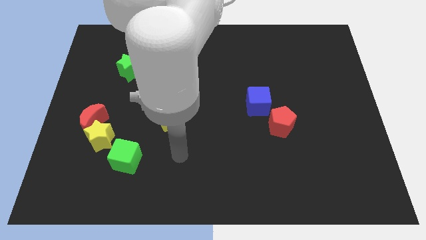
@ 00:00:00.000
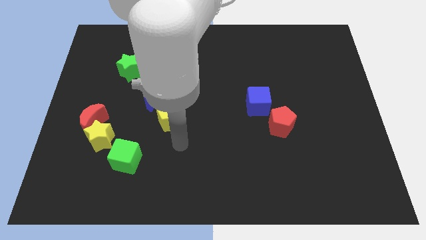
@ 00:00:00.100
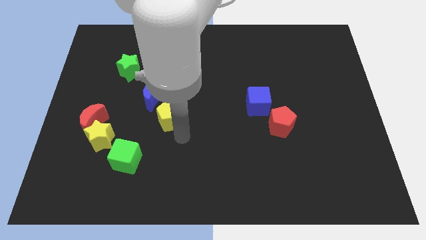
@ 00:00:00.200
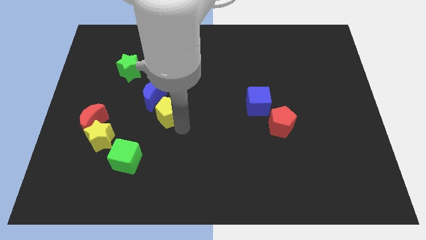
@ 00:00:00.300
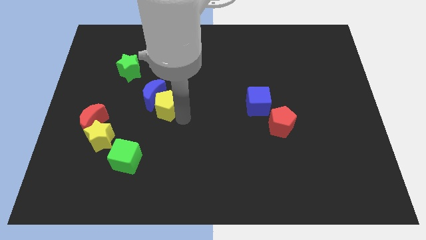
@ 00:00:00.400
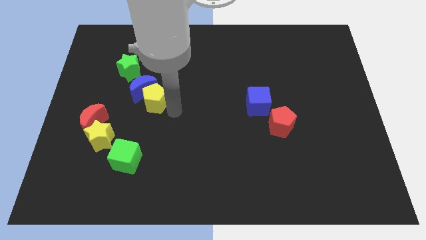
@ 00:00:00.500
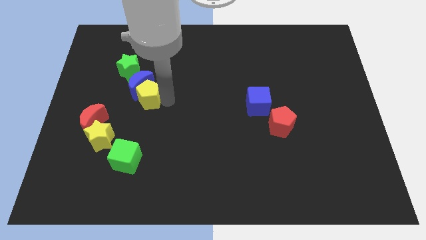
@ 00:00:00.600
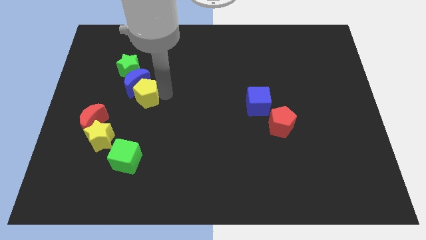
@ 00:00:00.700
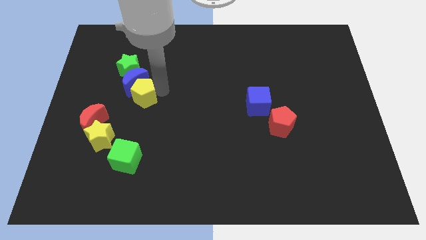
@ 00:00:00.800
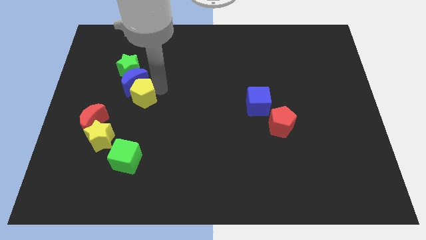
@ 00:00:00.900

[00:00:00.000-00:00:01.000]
push the blue moon up and to the left diagonally a little

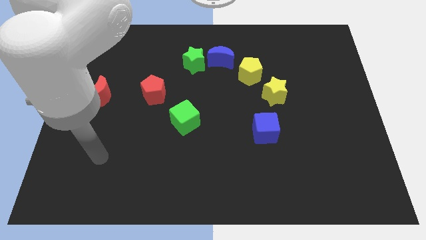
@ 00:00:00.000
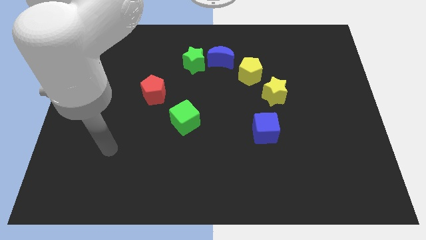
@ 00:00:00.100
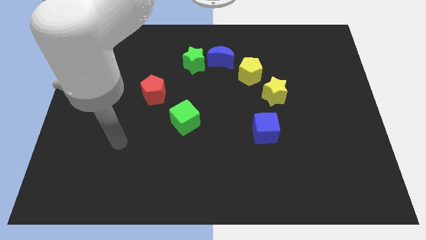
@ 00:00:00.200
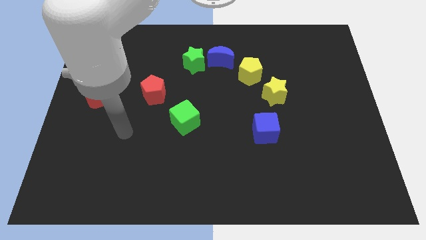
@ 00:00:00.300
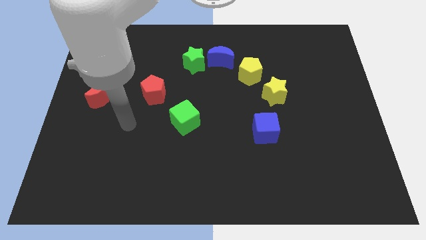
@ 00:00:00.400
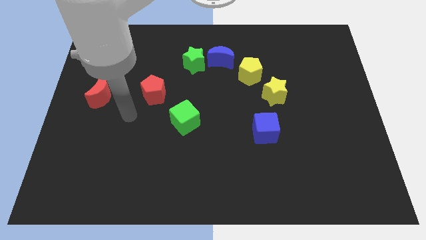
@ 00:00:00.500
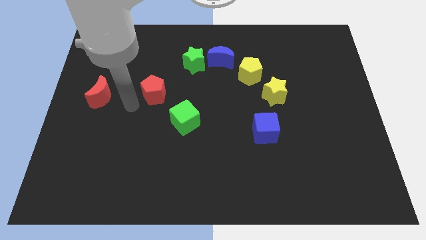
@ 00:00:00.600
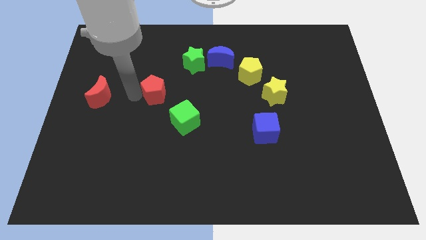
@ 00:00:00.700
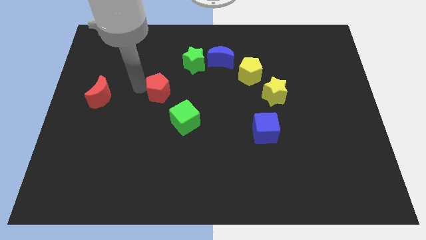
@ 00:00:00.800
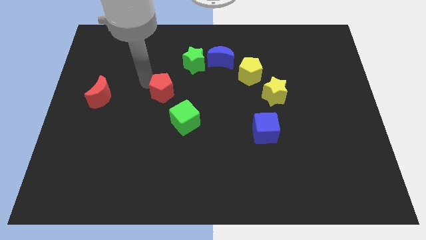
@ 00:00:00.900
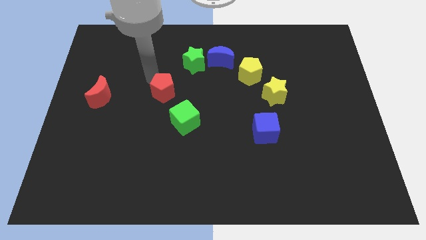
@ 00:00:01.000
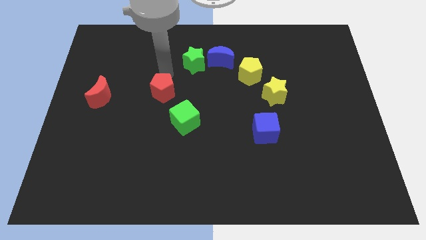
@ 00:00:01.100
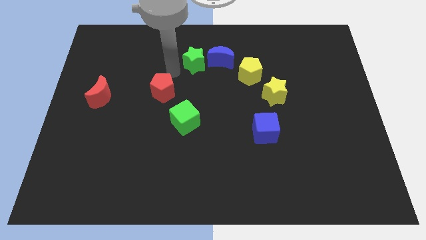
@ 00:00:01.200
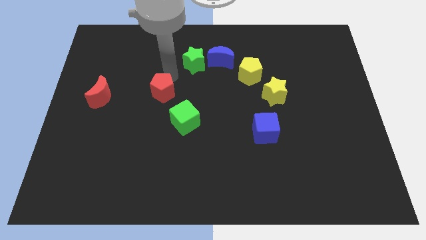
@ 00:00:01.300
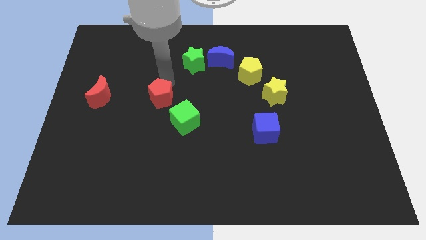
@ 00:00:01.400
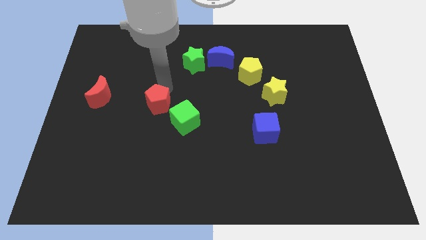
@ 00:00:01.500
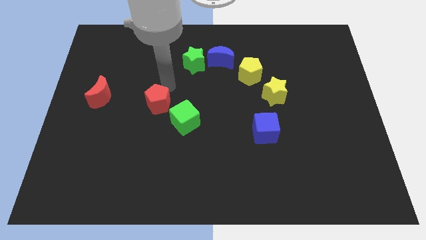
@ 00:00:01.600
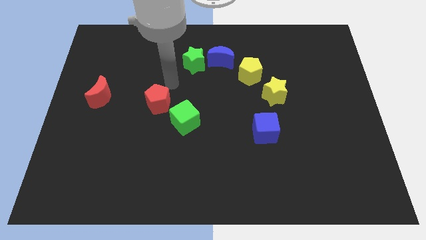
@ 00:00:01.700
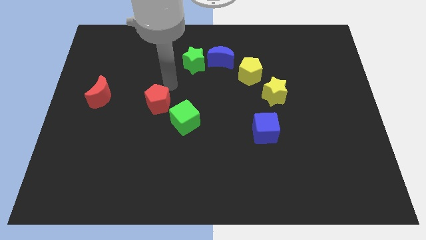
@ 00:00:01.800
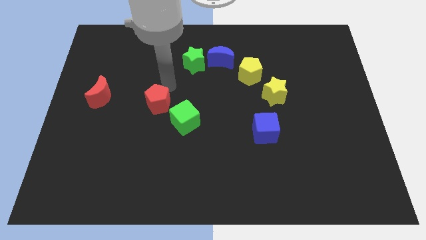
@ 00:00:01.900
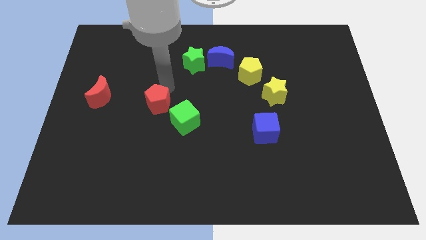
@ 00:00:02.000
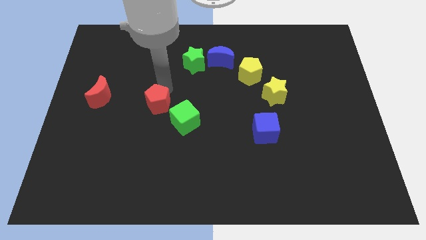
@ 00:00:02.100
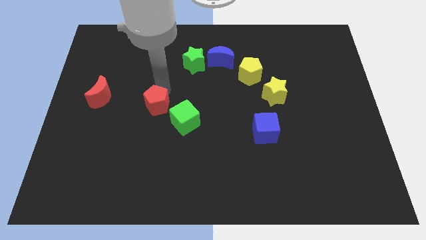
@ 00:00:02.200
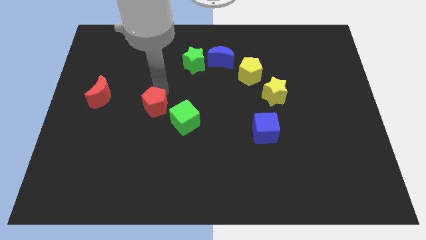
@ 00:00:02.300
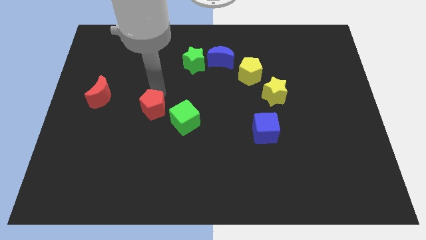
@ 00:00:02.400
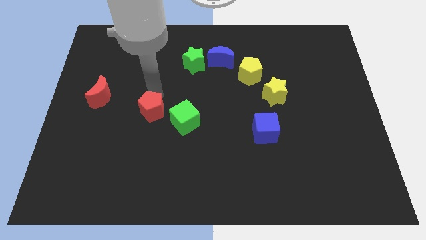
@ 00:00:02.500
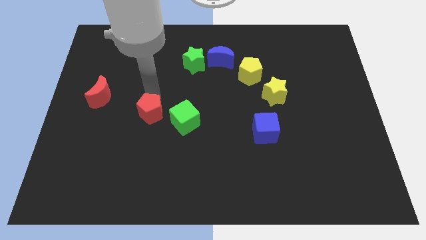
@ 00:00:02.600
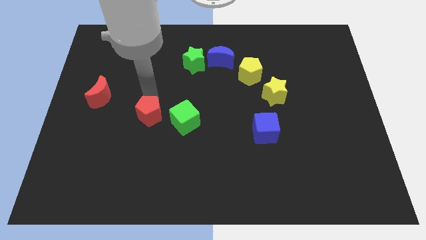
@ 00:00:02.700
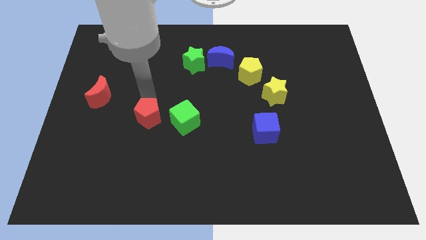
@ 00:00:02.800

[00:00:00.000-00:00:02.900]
slide the red pentagon somewhat down

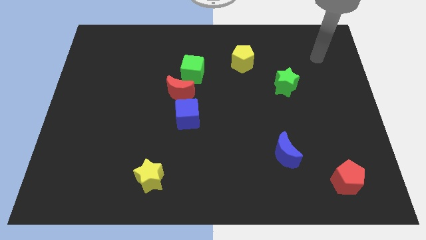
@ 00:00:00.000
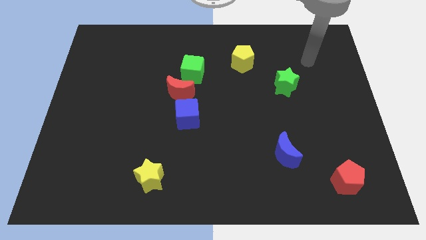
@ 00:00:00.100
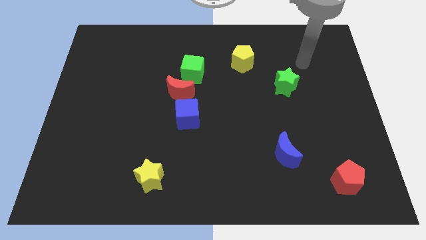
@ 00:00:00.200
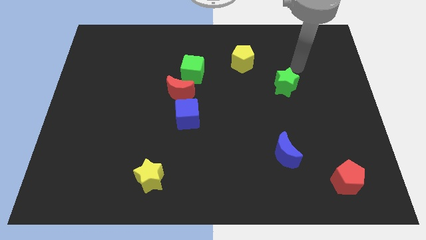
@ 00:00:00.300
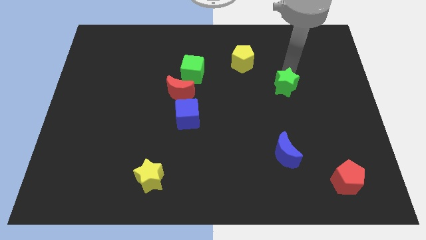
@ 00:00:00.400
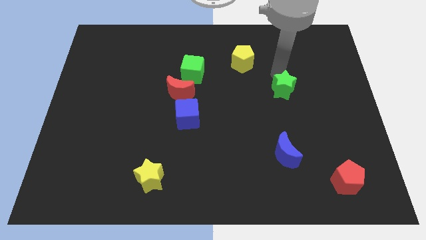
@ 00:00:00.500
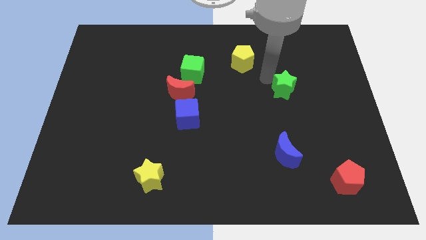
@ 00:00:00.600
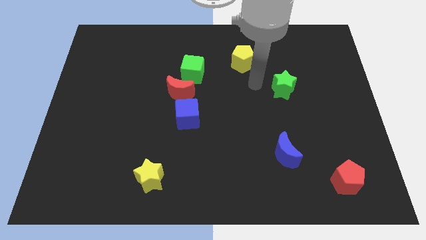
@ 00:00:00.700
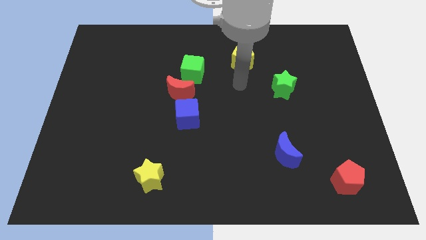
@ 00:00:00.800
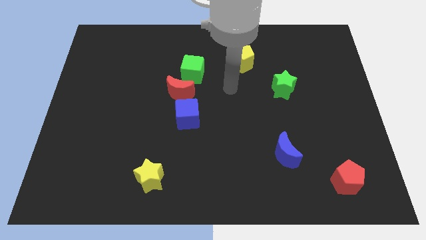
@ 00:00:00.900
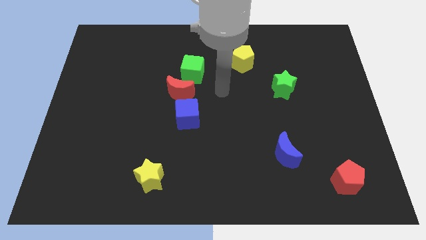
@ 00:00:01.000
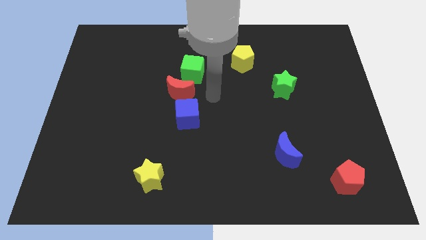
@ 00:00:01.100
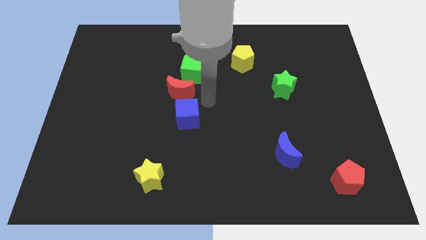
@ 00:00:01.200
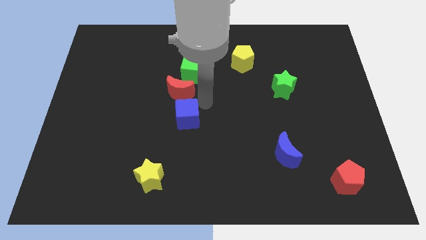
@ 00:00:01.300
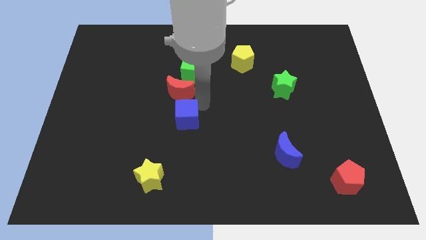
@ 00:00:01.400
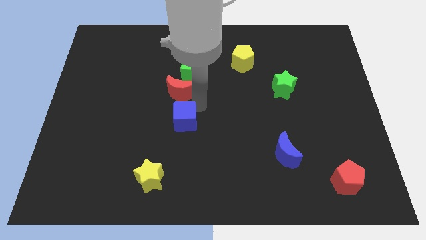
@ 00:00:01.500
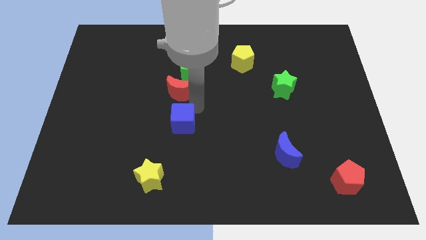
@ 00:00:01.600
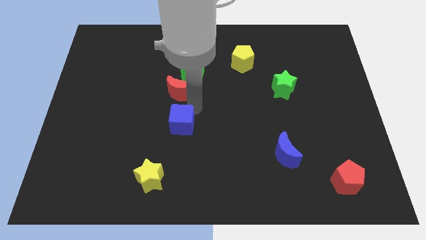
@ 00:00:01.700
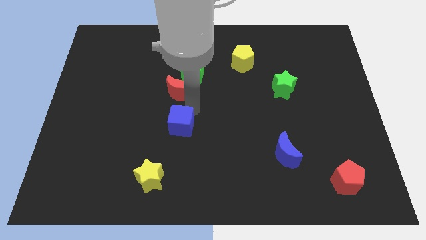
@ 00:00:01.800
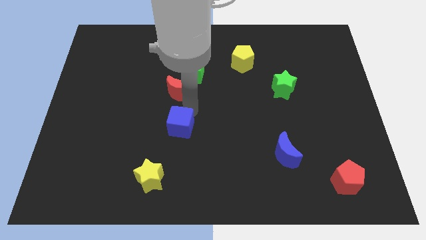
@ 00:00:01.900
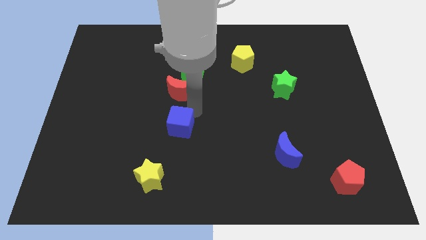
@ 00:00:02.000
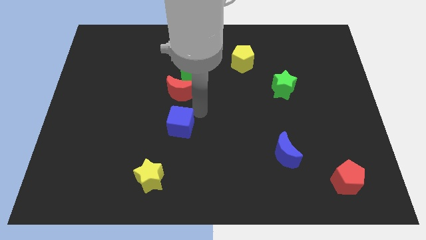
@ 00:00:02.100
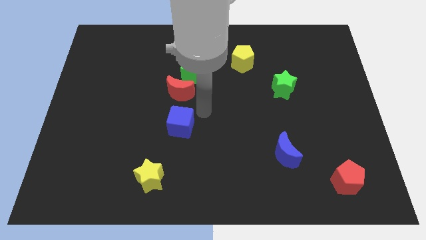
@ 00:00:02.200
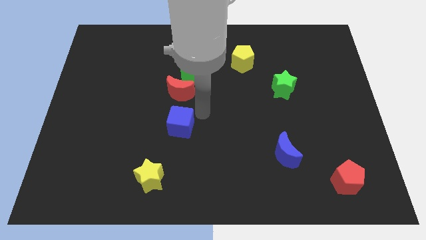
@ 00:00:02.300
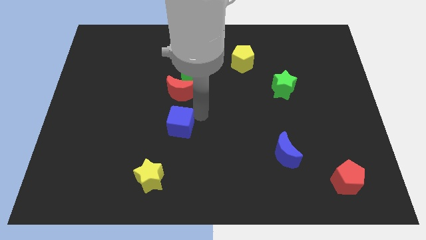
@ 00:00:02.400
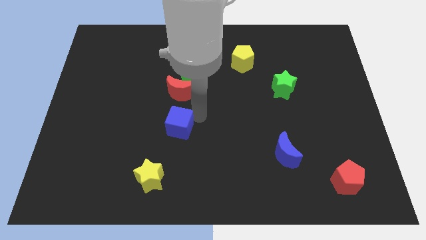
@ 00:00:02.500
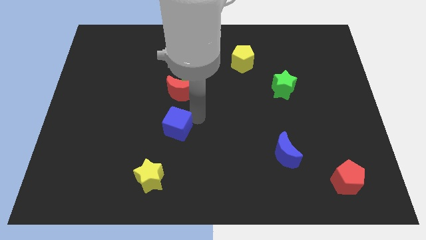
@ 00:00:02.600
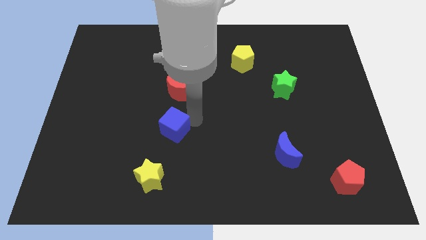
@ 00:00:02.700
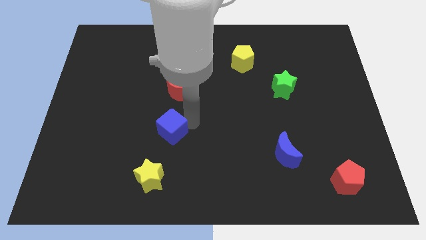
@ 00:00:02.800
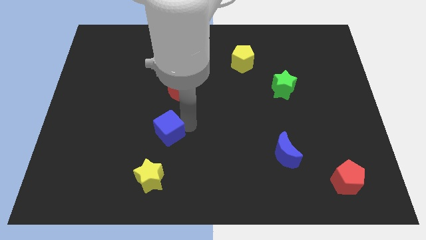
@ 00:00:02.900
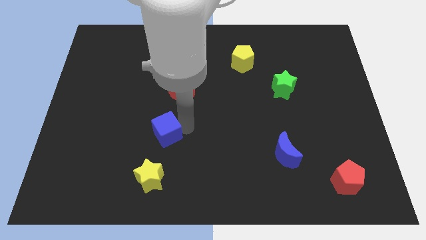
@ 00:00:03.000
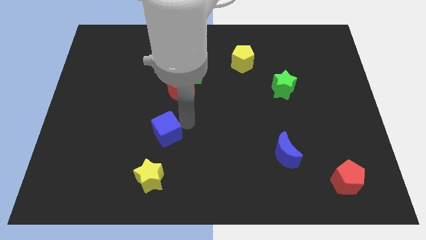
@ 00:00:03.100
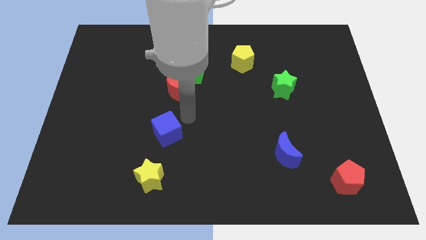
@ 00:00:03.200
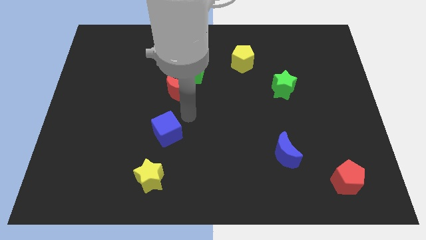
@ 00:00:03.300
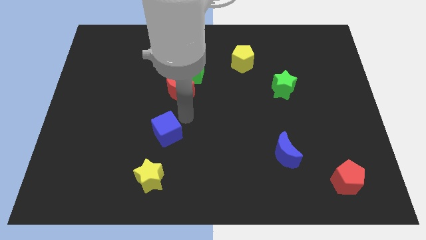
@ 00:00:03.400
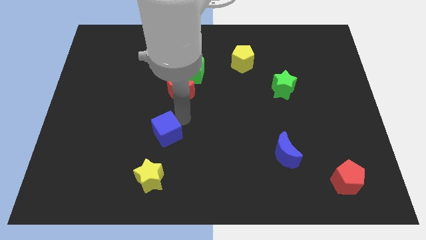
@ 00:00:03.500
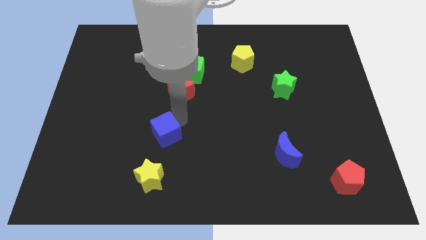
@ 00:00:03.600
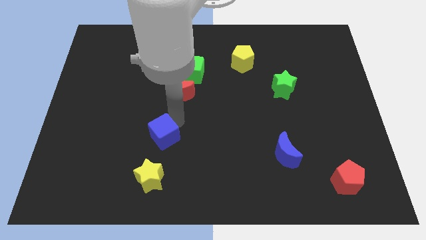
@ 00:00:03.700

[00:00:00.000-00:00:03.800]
slightly move the blue cube downwards and then left

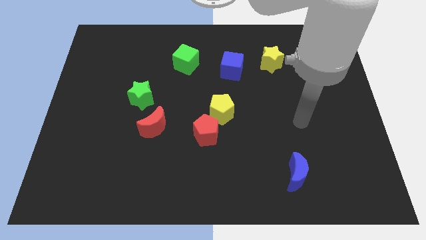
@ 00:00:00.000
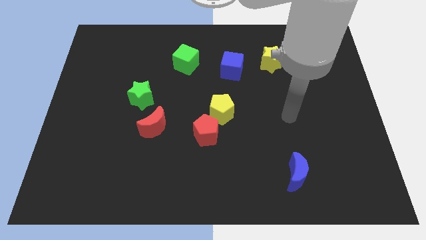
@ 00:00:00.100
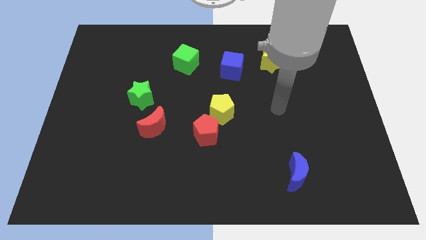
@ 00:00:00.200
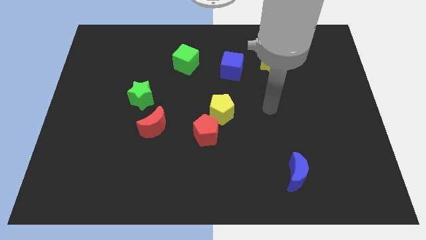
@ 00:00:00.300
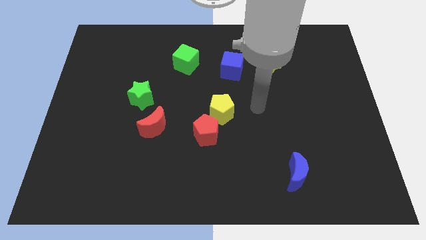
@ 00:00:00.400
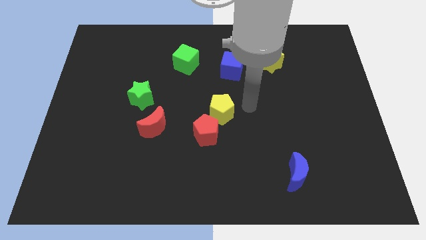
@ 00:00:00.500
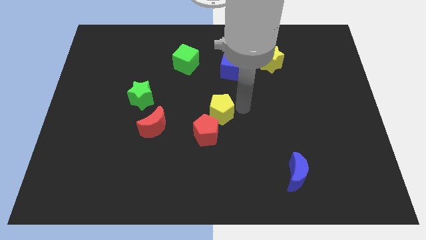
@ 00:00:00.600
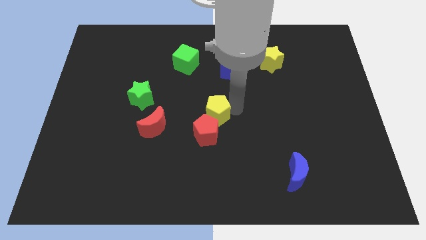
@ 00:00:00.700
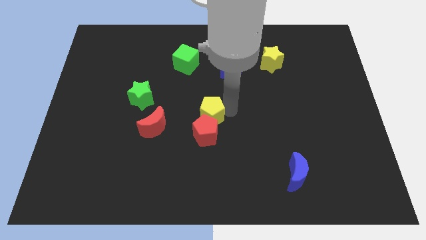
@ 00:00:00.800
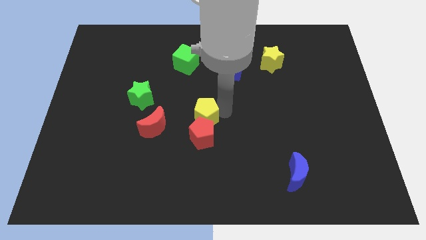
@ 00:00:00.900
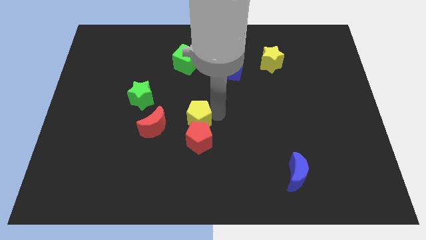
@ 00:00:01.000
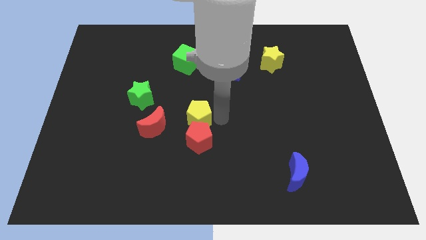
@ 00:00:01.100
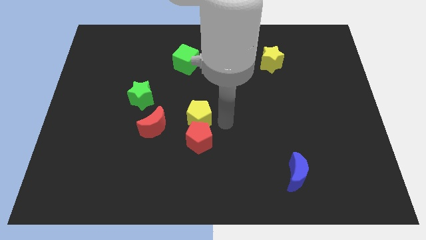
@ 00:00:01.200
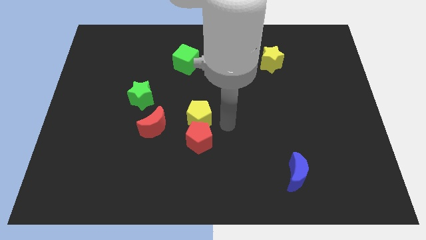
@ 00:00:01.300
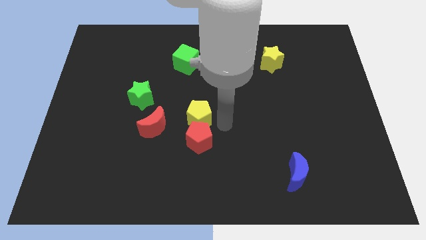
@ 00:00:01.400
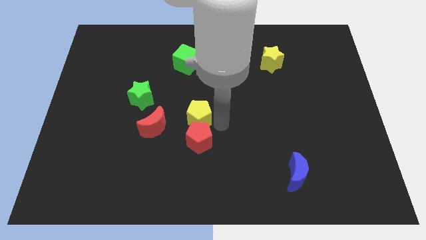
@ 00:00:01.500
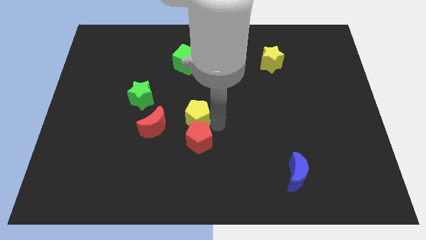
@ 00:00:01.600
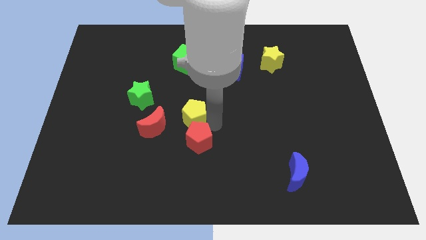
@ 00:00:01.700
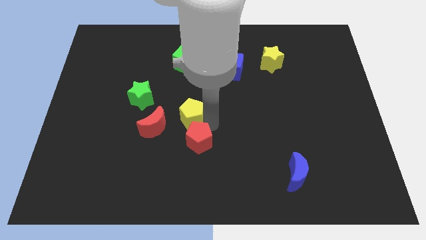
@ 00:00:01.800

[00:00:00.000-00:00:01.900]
push the yellow pentagon left a little
